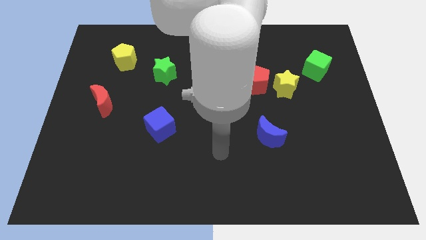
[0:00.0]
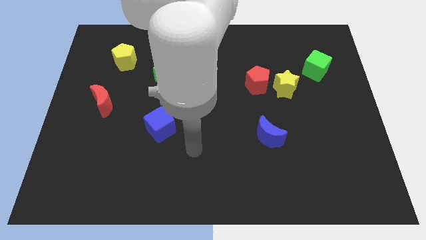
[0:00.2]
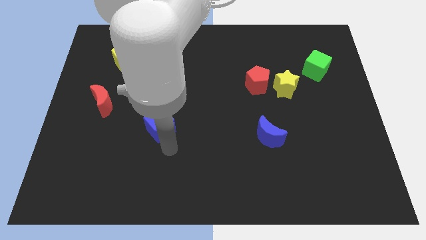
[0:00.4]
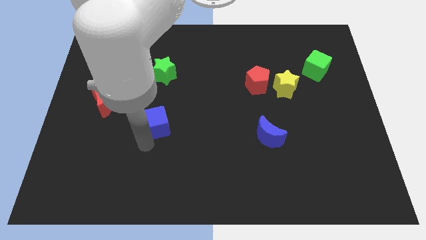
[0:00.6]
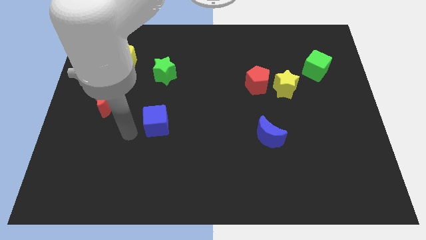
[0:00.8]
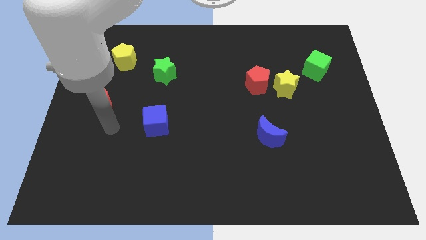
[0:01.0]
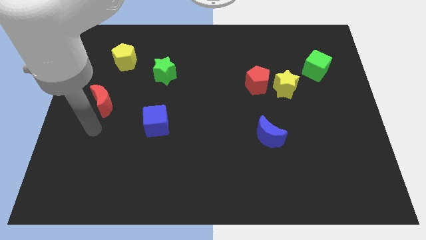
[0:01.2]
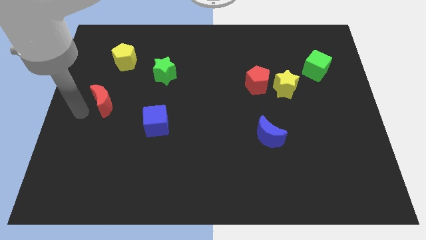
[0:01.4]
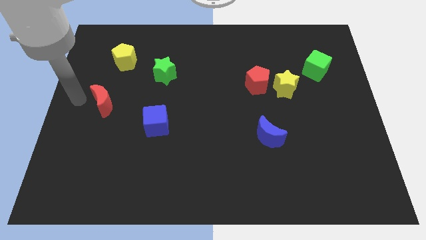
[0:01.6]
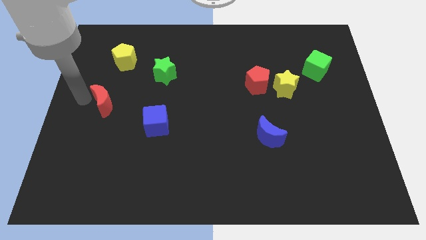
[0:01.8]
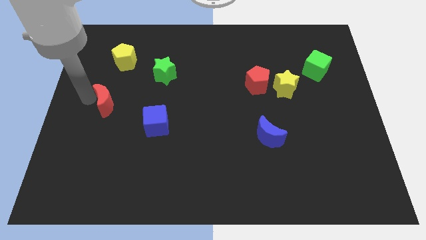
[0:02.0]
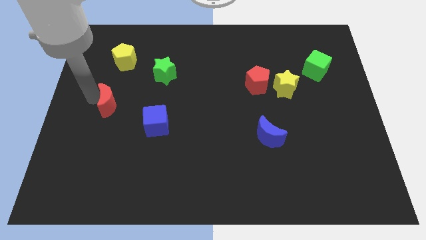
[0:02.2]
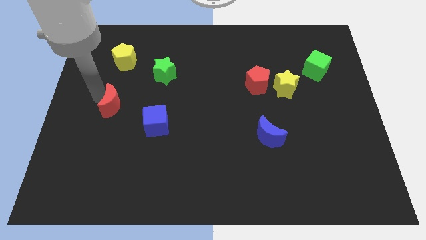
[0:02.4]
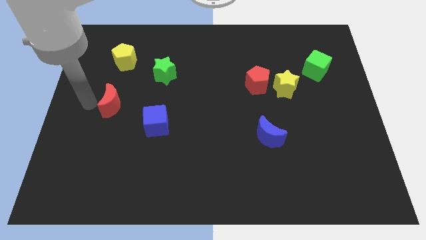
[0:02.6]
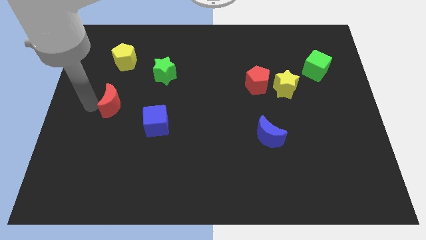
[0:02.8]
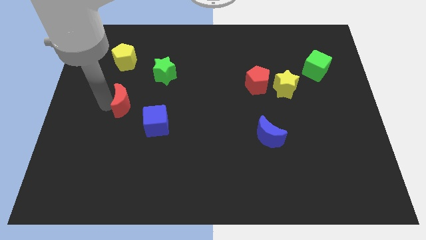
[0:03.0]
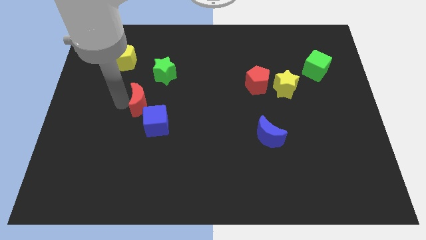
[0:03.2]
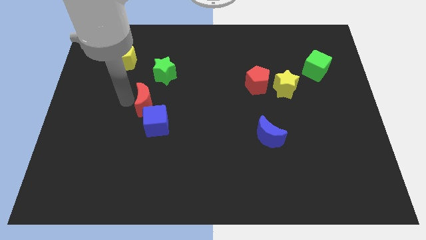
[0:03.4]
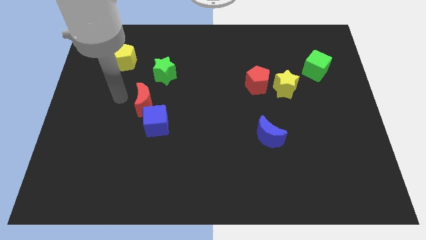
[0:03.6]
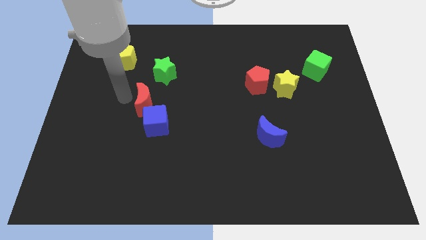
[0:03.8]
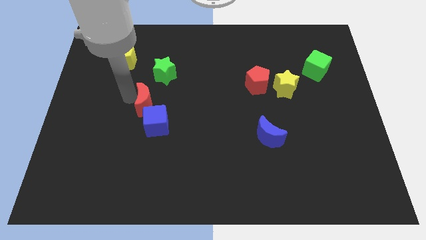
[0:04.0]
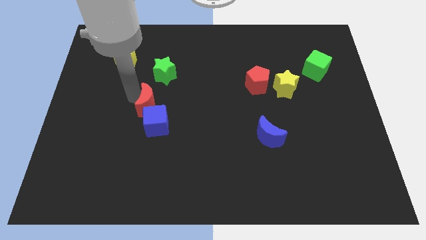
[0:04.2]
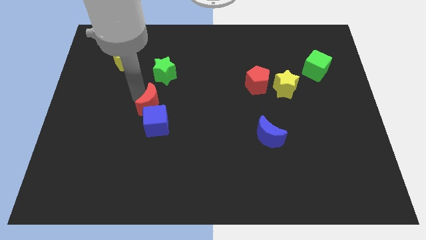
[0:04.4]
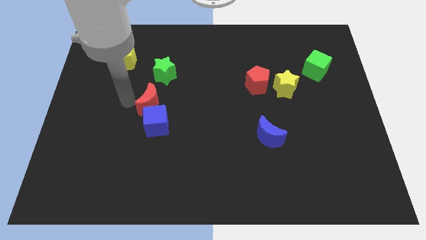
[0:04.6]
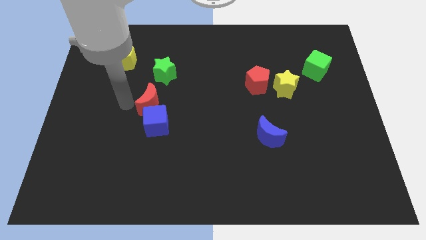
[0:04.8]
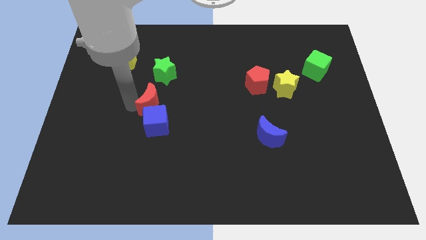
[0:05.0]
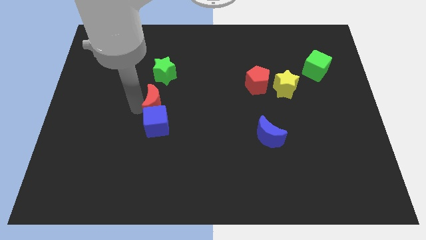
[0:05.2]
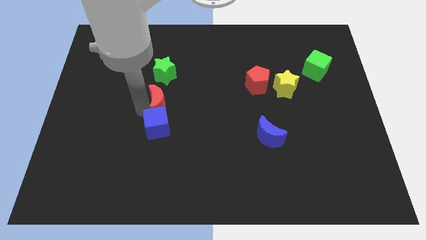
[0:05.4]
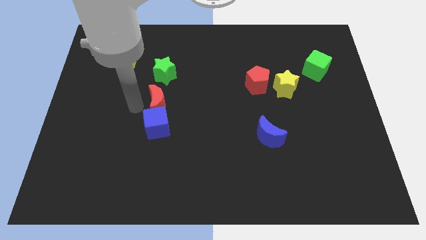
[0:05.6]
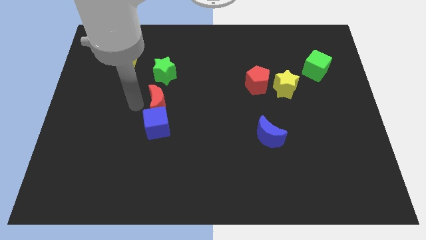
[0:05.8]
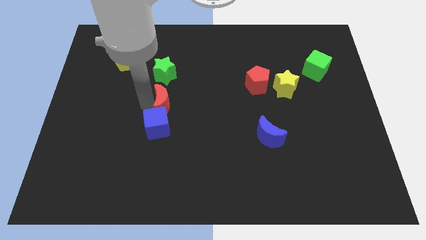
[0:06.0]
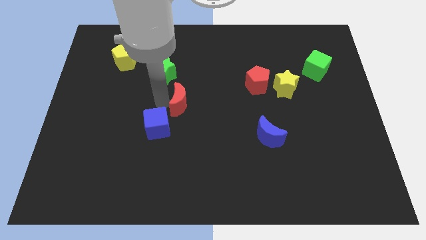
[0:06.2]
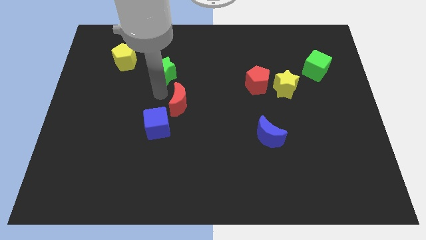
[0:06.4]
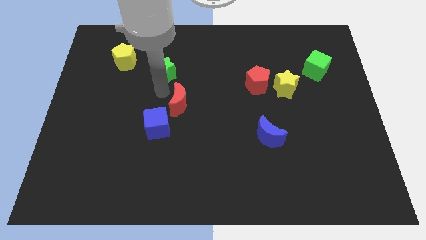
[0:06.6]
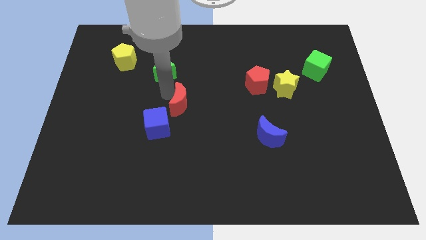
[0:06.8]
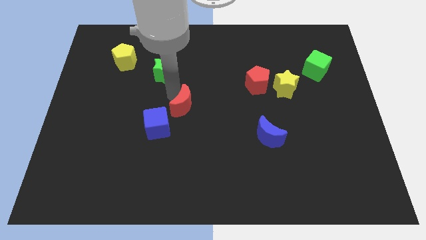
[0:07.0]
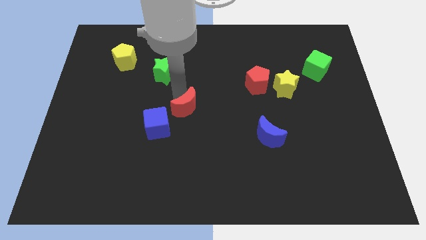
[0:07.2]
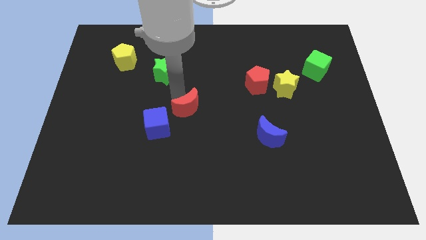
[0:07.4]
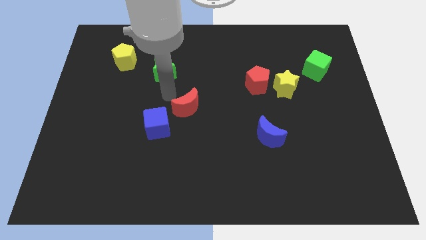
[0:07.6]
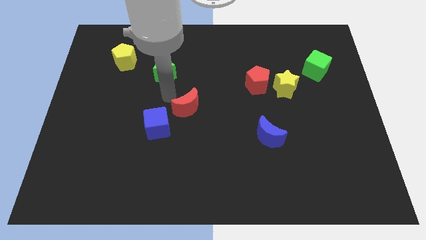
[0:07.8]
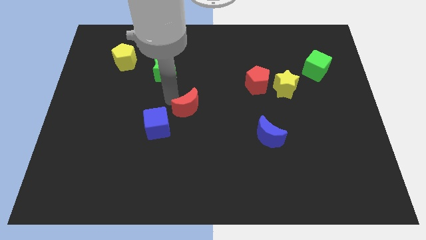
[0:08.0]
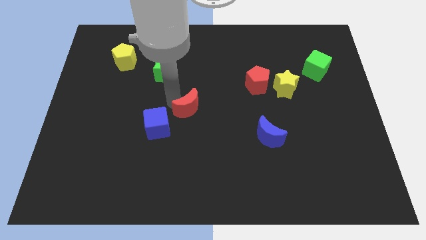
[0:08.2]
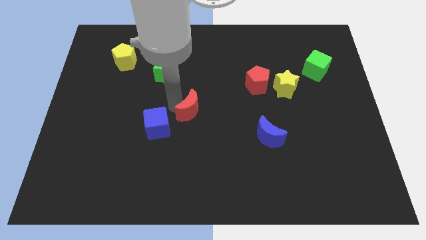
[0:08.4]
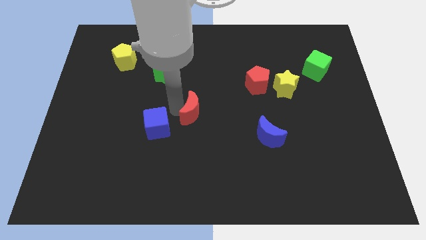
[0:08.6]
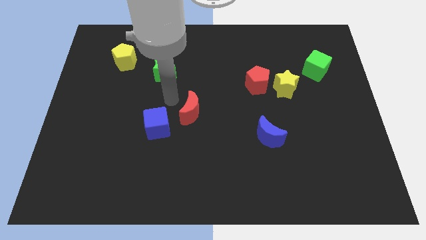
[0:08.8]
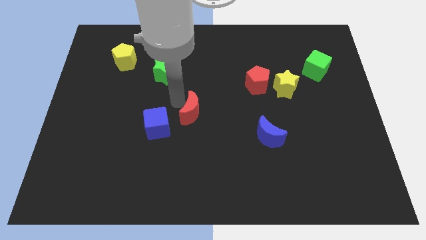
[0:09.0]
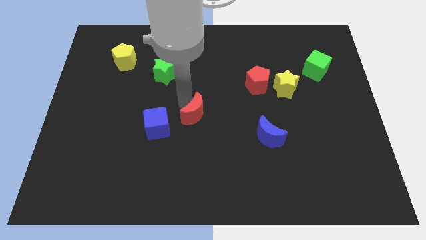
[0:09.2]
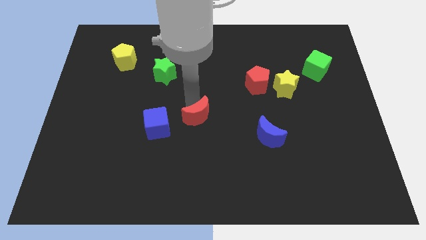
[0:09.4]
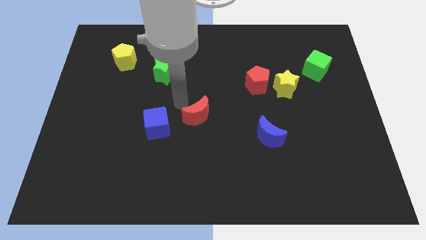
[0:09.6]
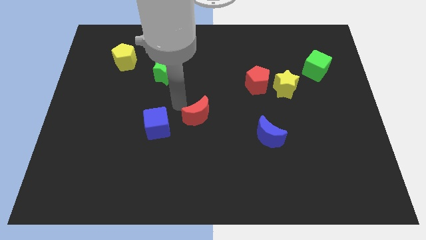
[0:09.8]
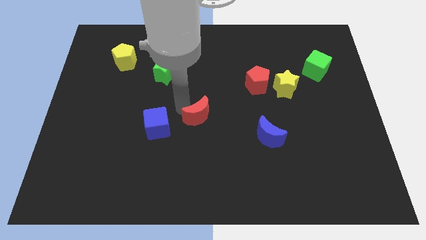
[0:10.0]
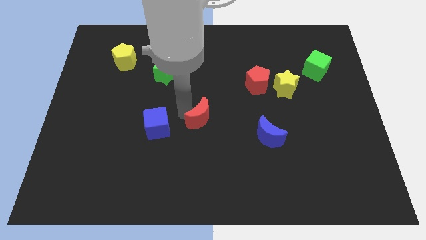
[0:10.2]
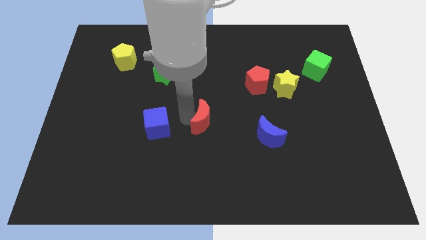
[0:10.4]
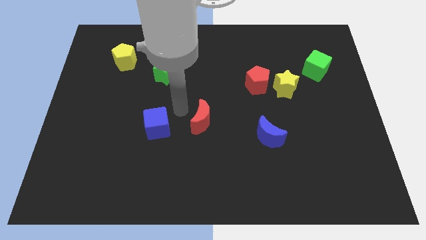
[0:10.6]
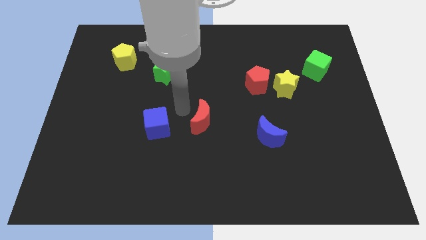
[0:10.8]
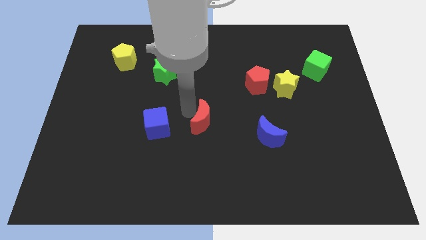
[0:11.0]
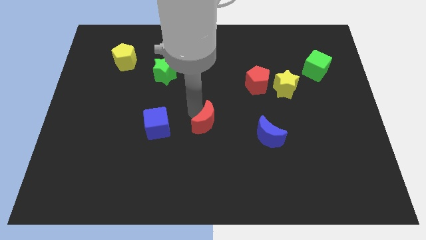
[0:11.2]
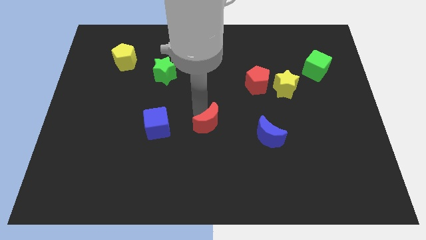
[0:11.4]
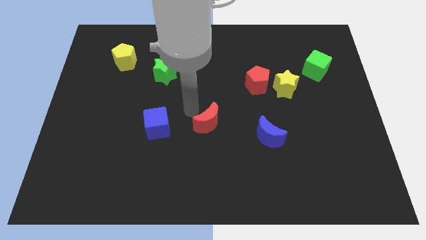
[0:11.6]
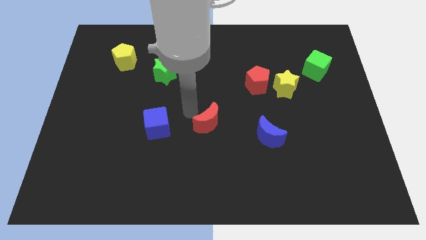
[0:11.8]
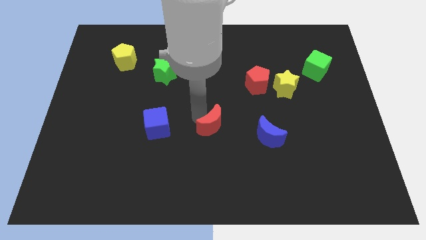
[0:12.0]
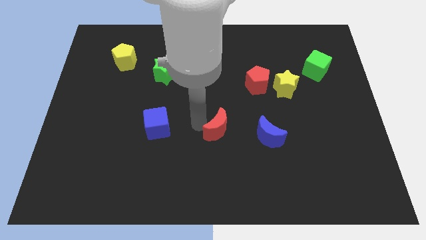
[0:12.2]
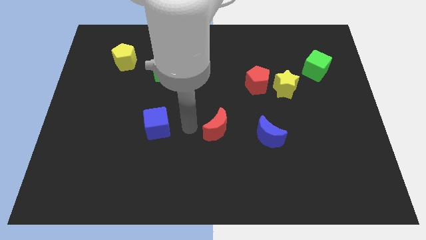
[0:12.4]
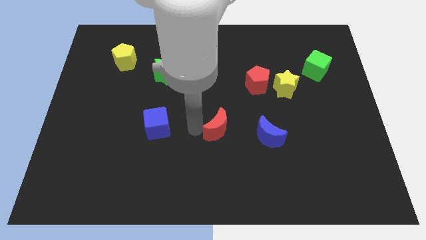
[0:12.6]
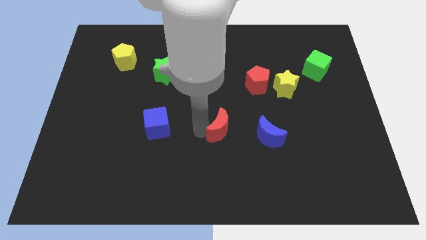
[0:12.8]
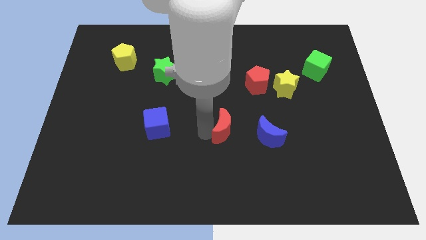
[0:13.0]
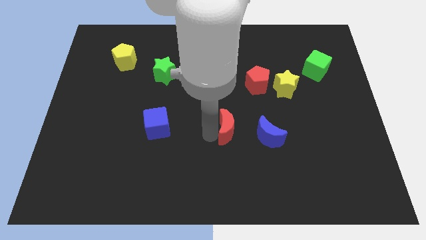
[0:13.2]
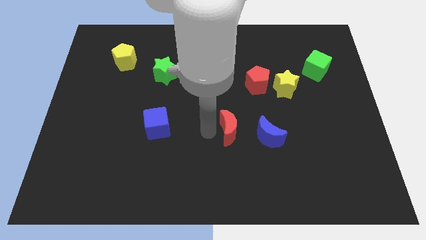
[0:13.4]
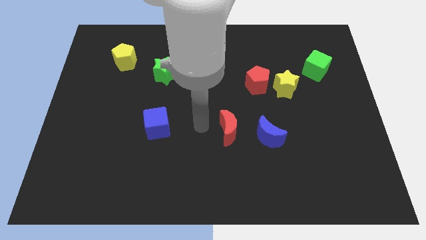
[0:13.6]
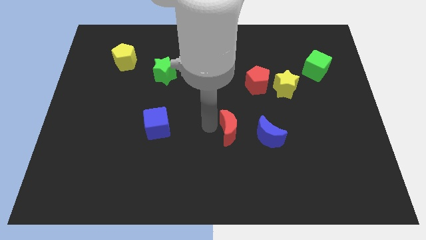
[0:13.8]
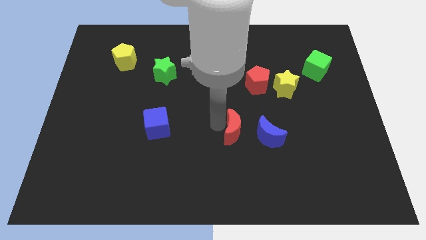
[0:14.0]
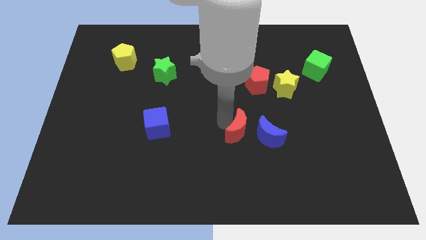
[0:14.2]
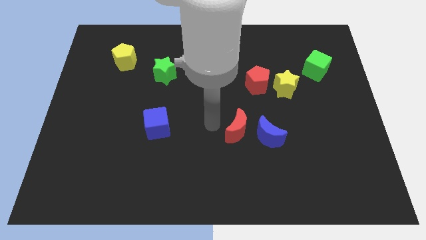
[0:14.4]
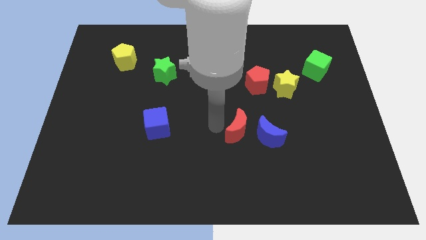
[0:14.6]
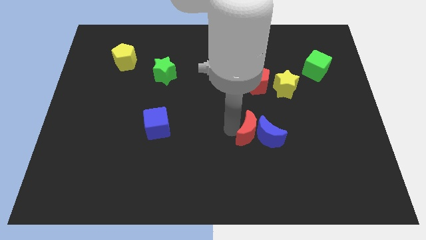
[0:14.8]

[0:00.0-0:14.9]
push the red moon to the blue moon

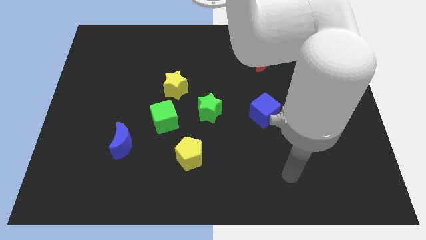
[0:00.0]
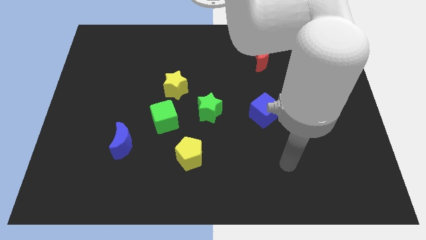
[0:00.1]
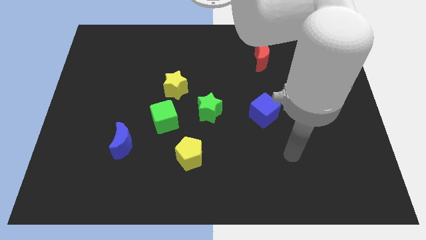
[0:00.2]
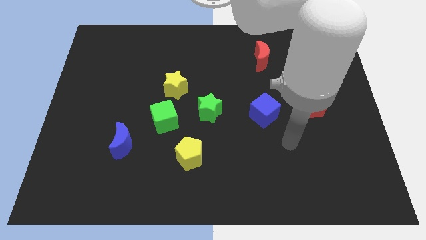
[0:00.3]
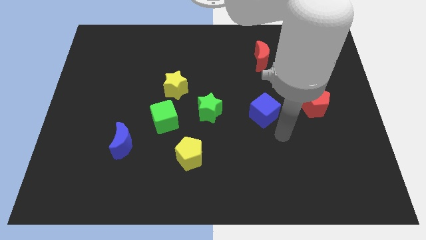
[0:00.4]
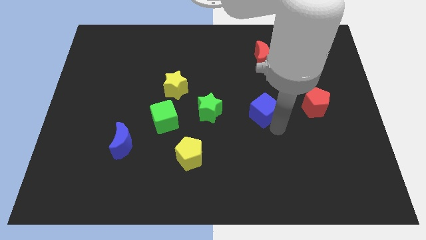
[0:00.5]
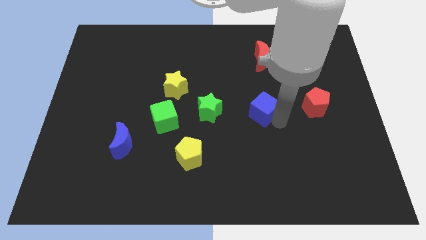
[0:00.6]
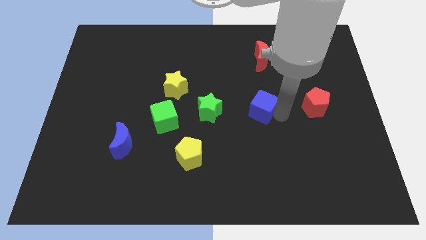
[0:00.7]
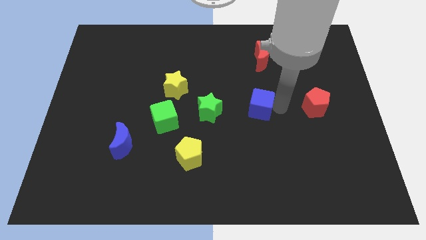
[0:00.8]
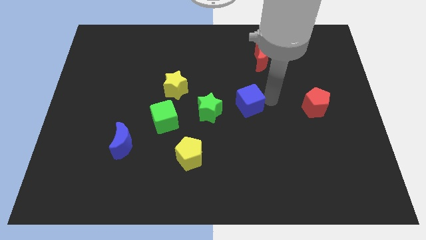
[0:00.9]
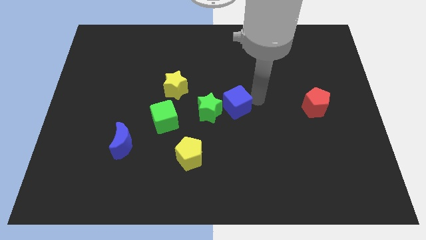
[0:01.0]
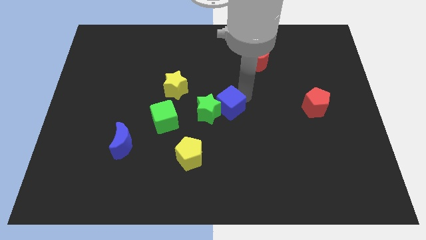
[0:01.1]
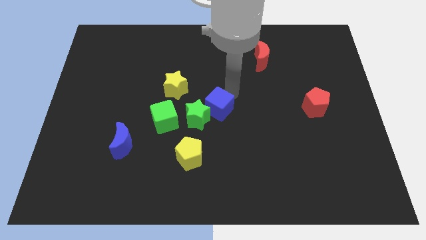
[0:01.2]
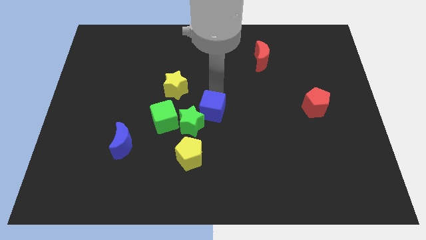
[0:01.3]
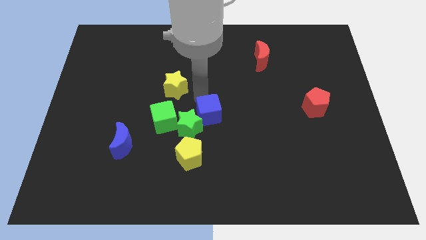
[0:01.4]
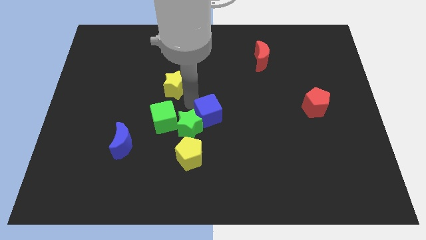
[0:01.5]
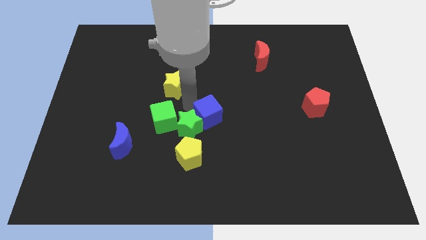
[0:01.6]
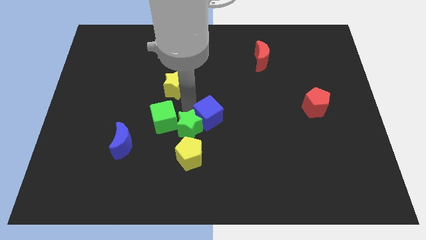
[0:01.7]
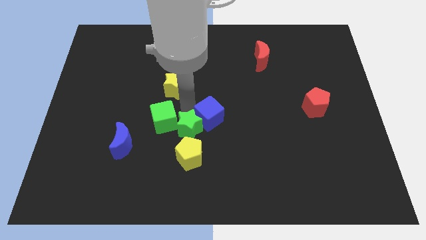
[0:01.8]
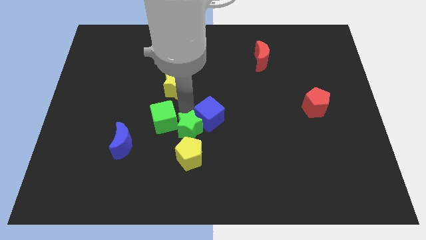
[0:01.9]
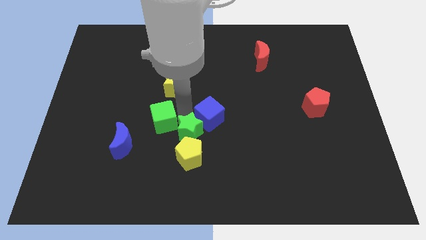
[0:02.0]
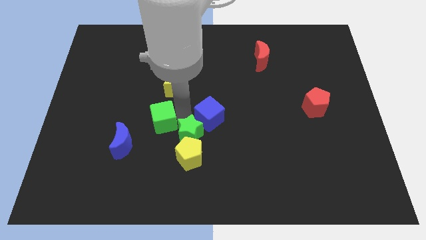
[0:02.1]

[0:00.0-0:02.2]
push the green star close to the yellow pentagon
